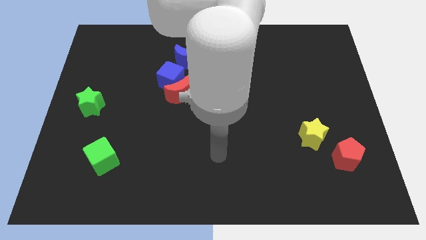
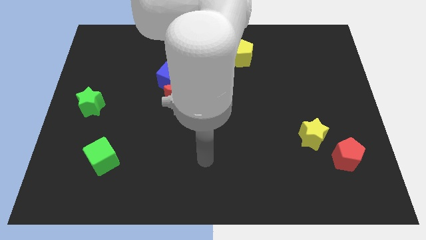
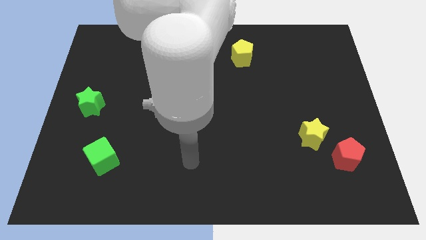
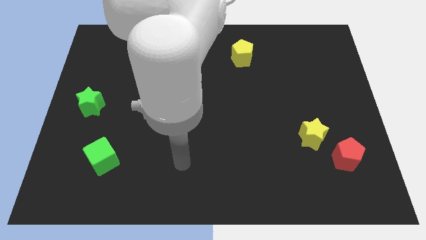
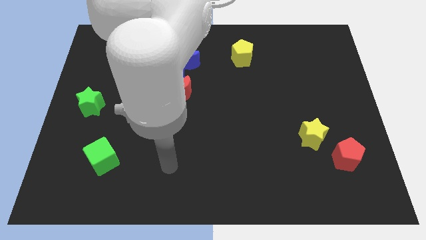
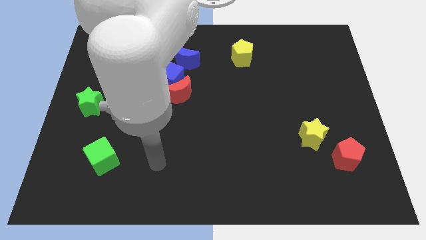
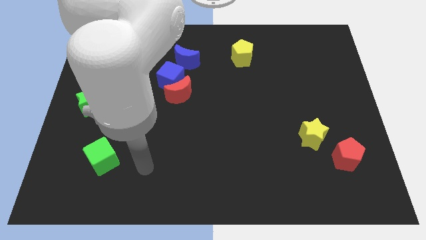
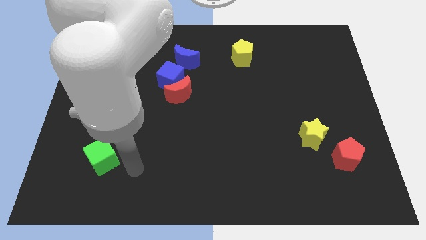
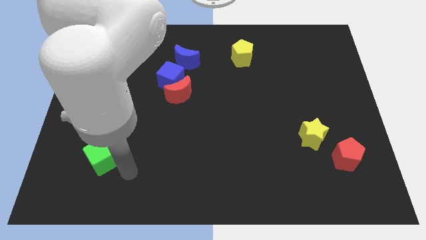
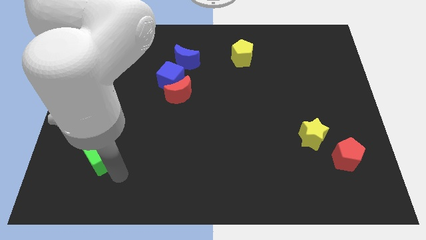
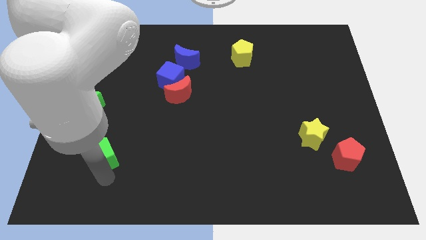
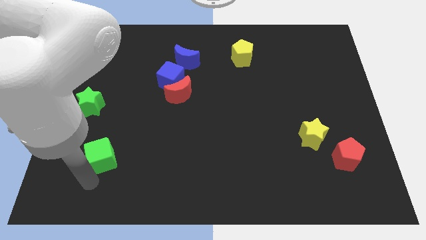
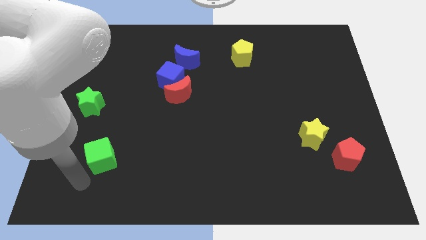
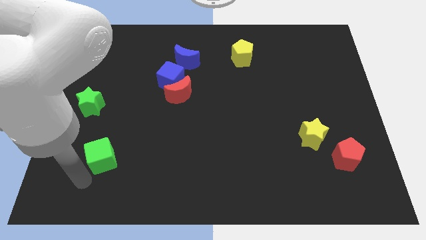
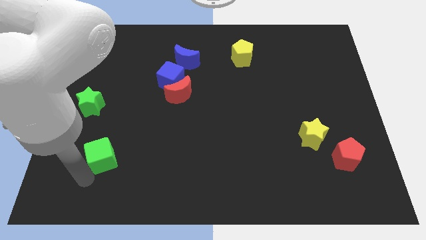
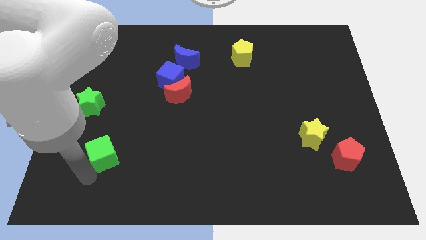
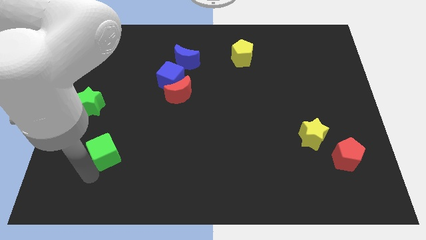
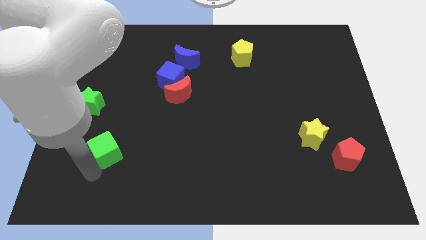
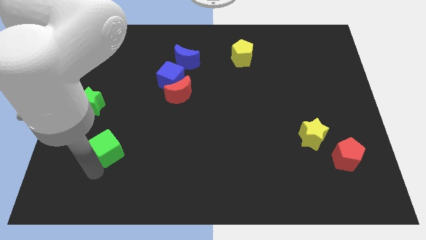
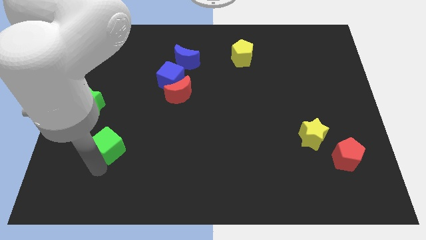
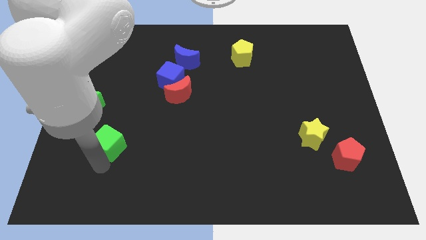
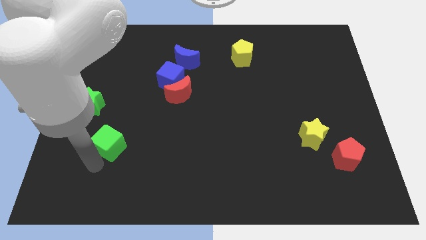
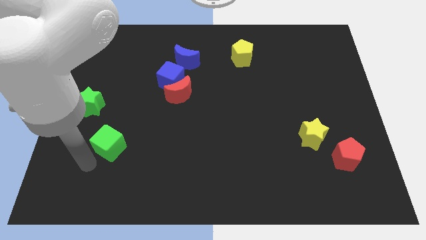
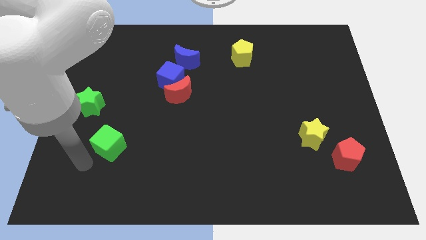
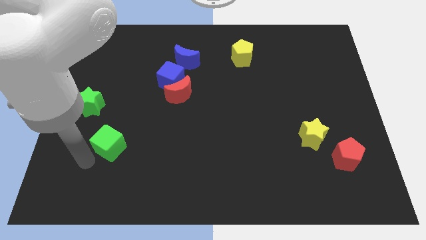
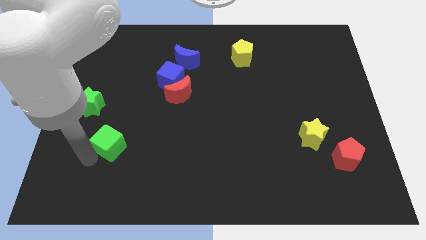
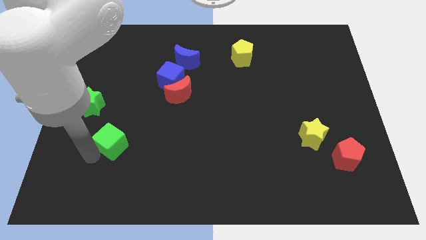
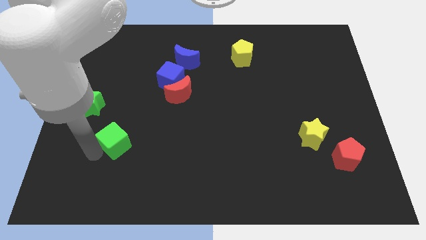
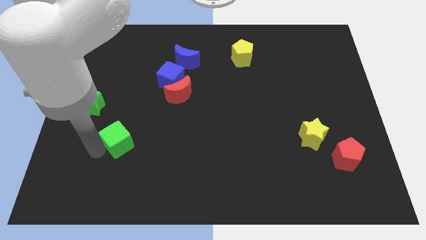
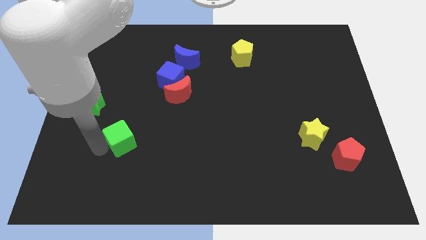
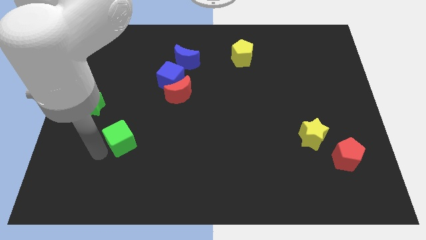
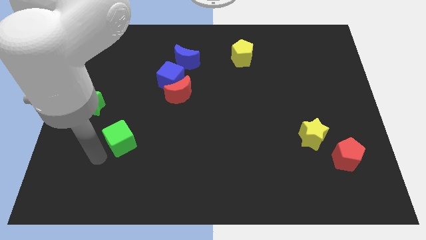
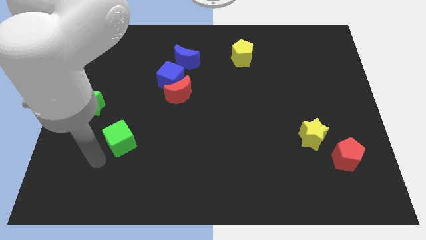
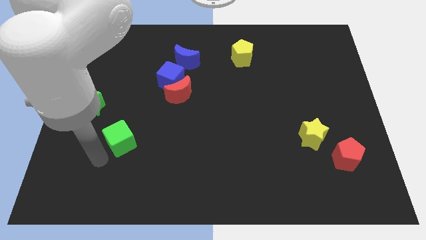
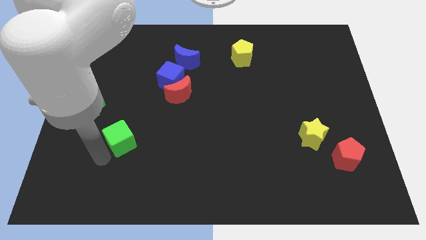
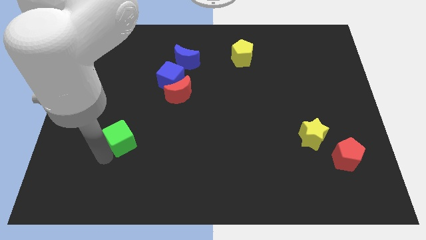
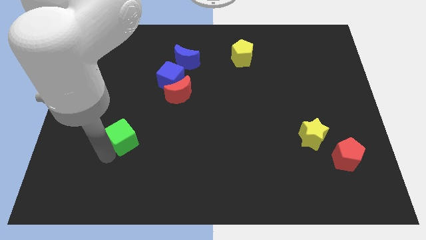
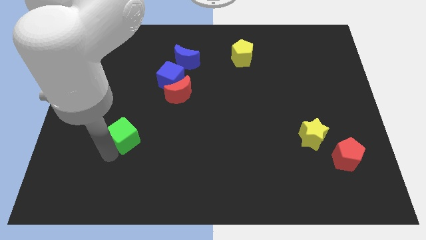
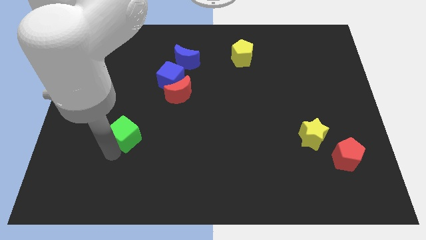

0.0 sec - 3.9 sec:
move the green cube slightly diagonally upwards and right

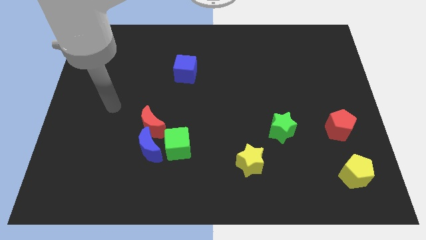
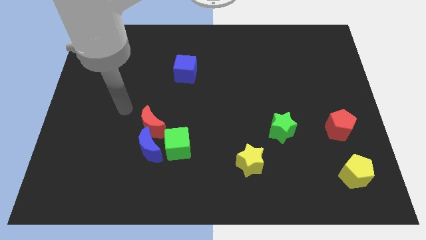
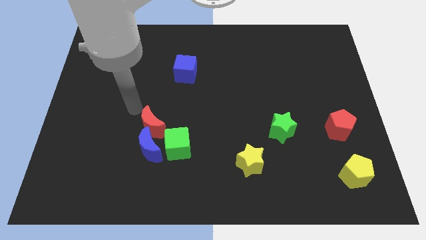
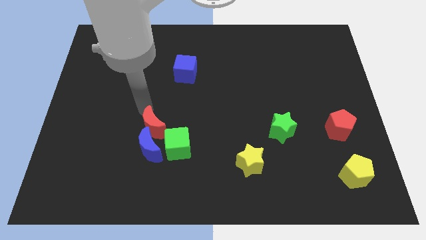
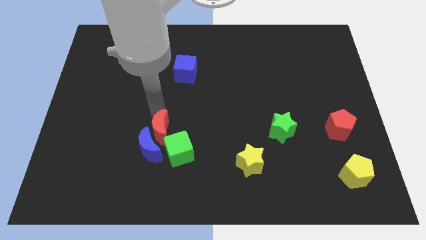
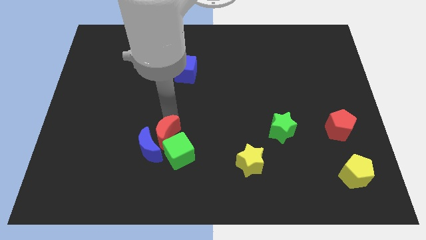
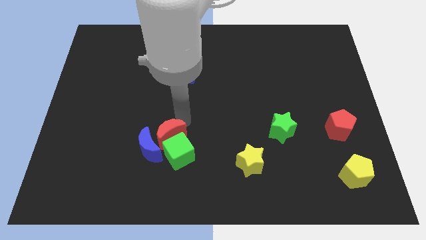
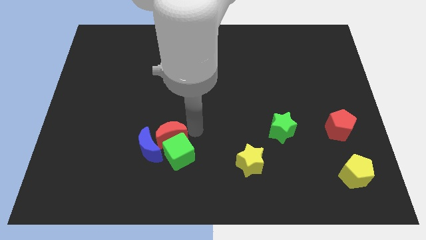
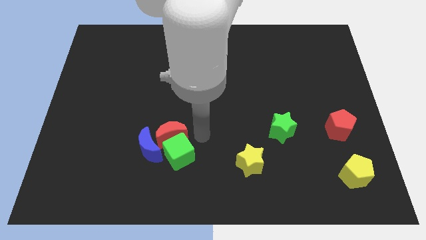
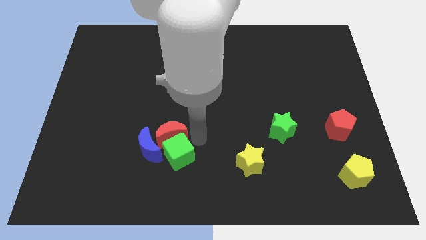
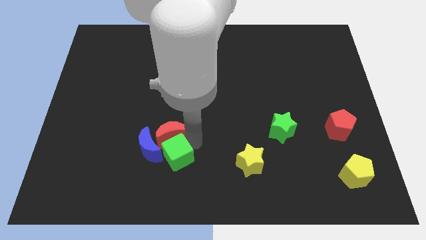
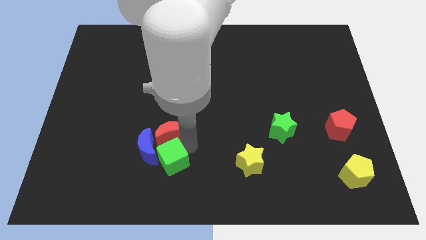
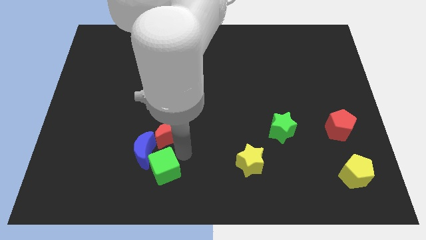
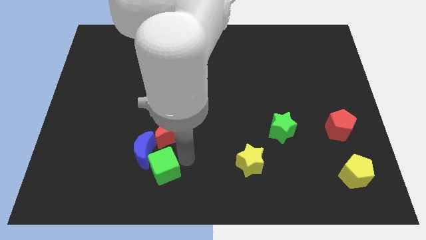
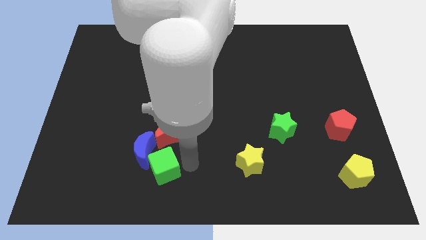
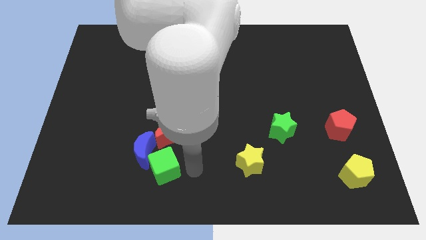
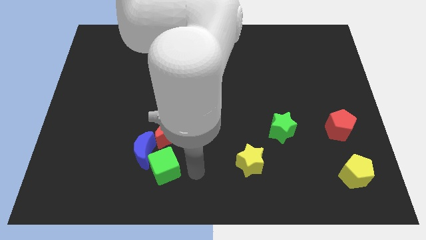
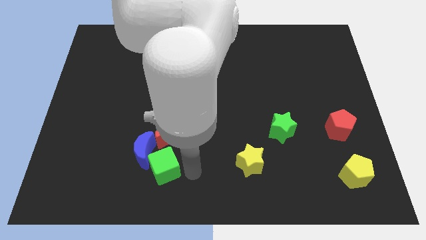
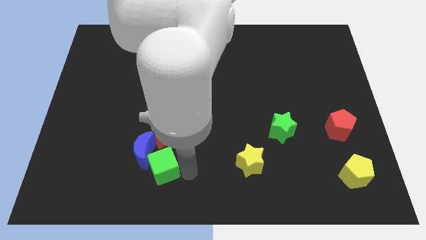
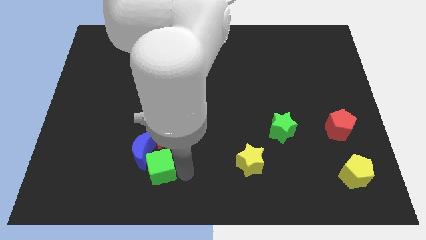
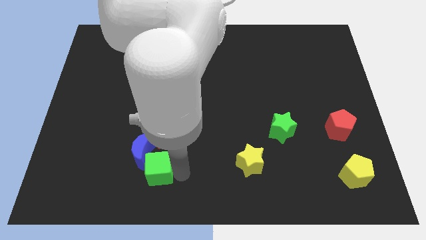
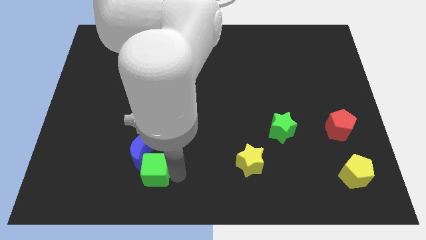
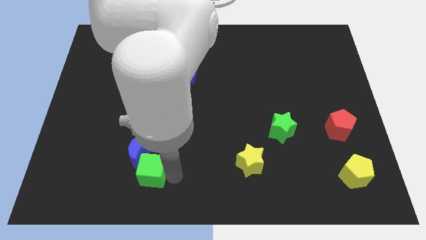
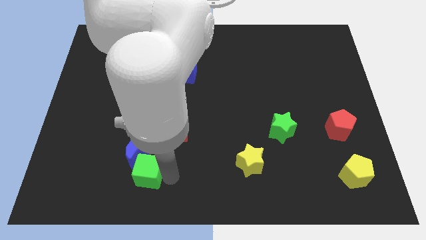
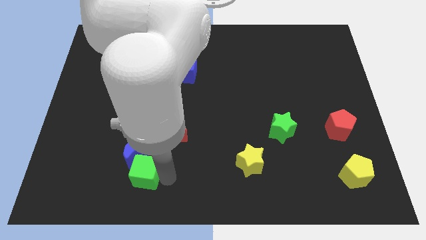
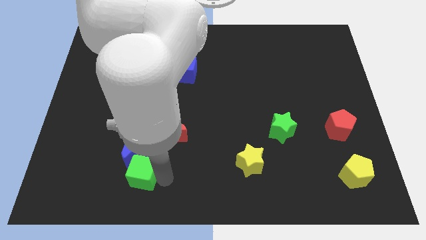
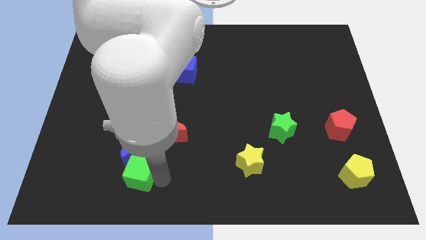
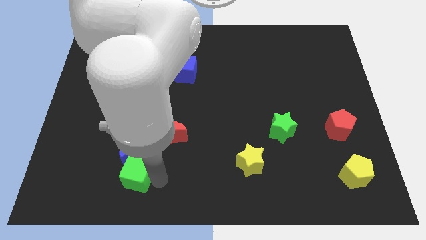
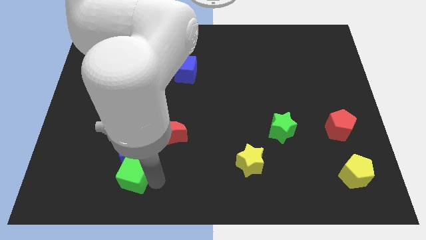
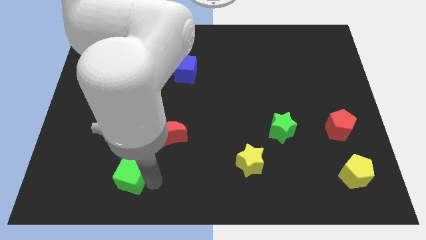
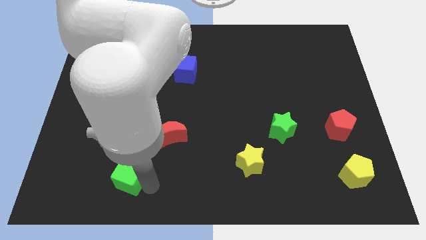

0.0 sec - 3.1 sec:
slightly move the green cube left

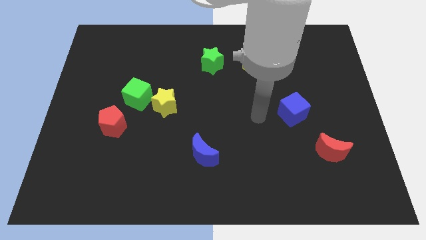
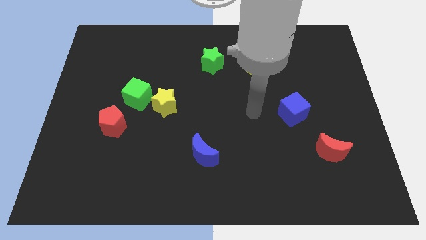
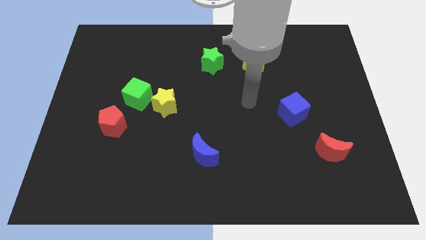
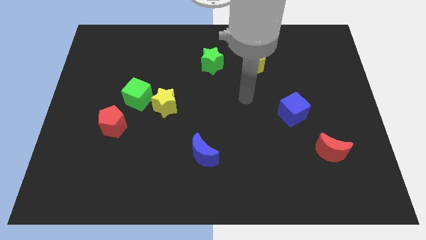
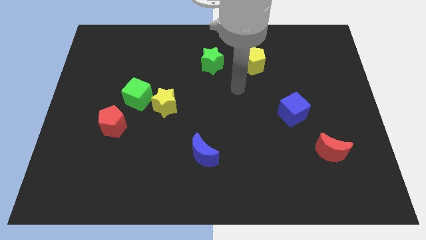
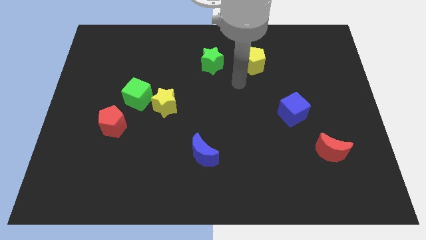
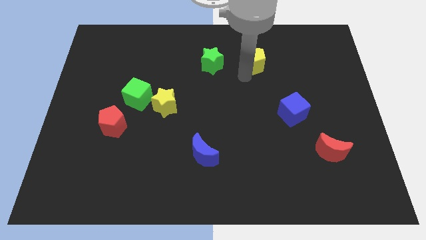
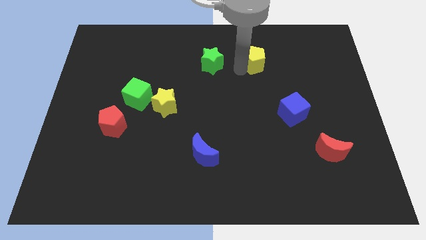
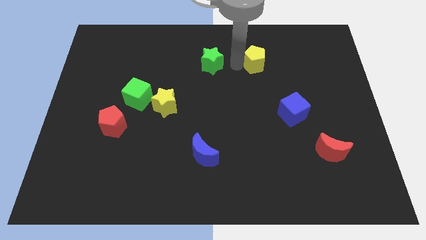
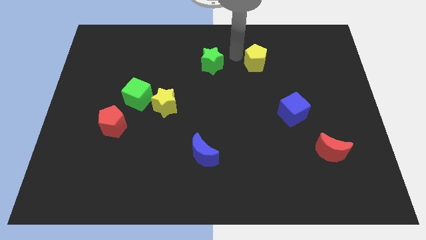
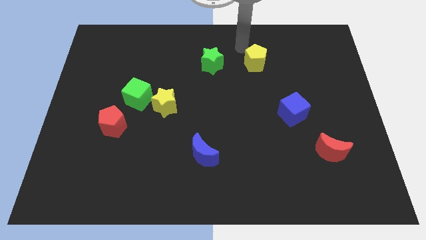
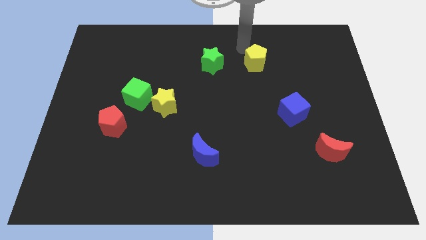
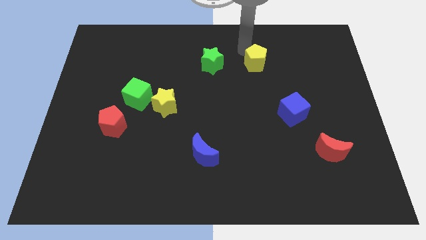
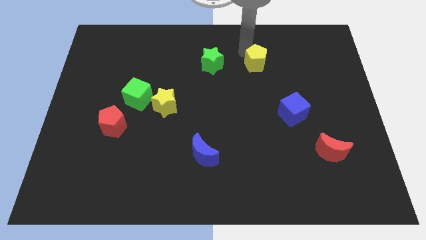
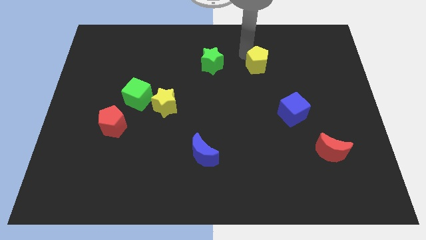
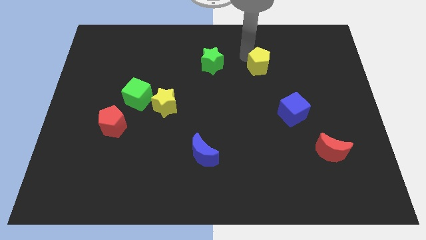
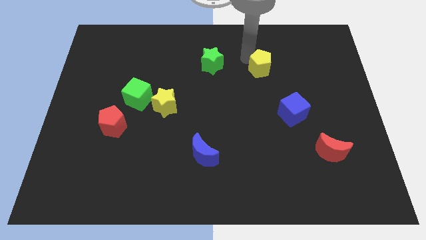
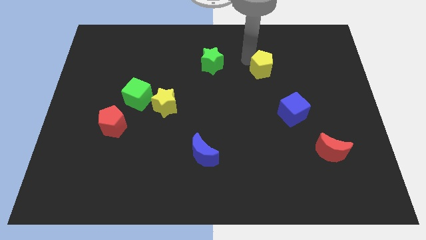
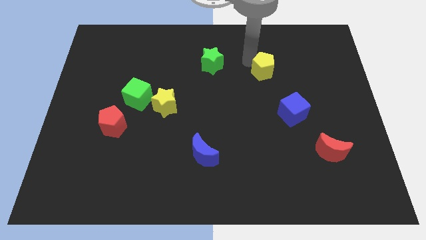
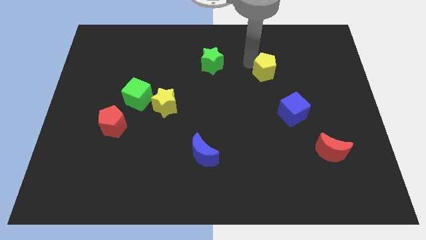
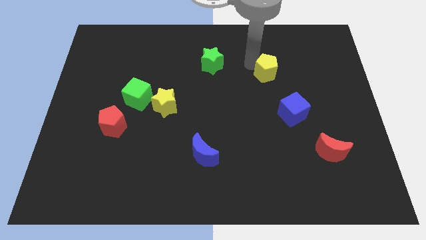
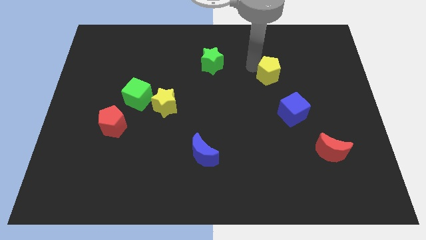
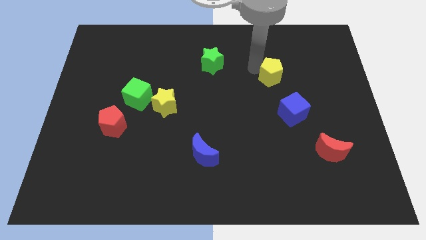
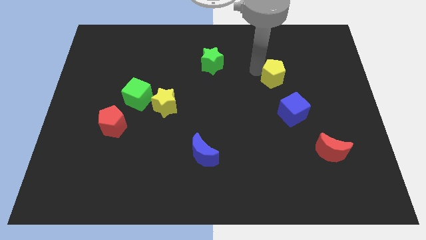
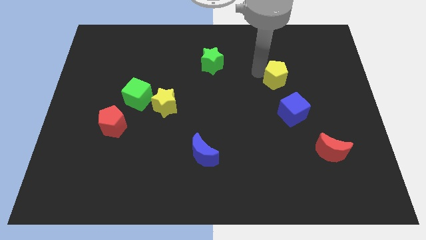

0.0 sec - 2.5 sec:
move the yellow pentagon downwards and right diagonally somewhat
